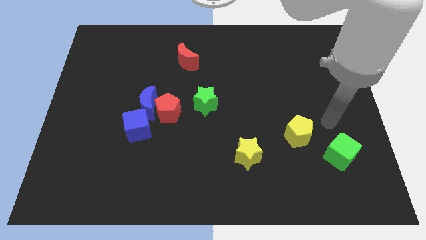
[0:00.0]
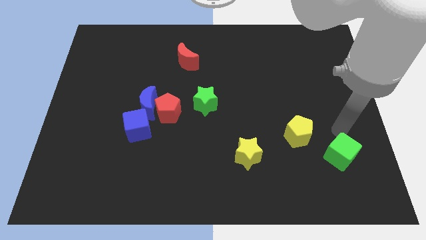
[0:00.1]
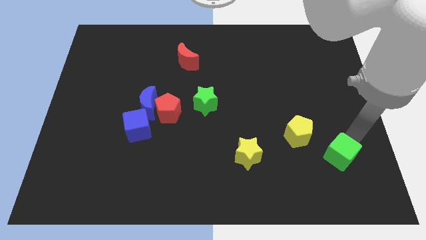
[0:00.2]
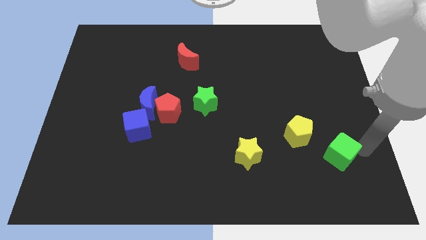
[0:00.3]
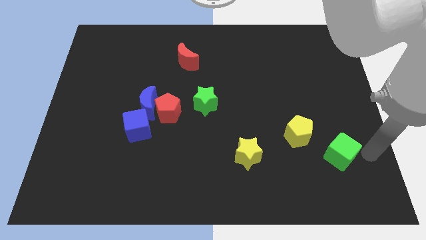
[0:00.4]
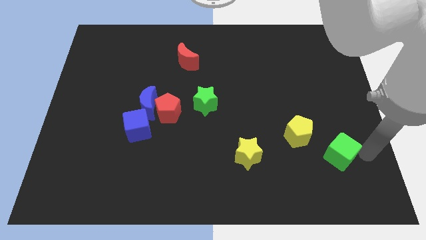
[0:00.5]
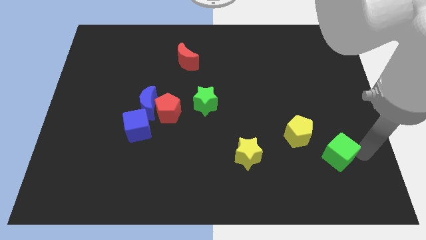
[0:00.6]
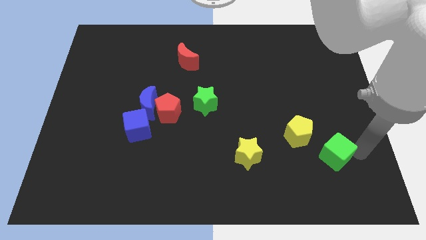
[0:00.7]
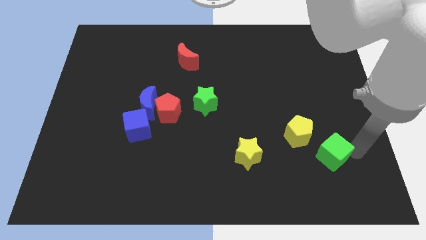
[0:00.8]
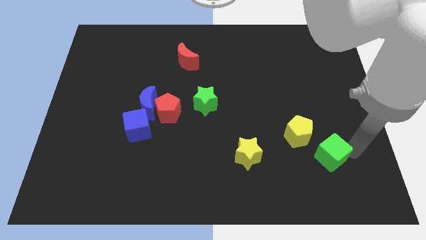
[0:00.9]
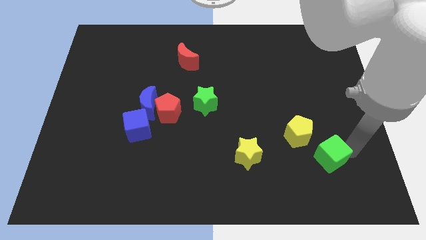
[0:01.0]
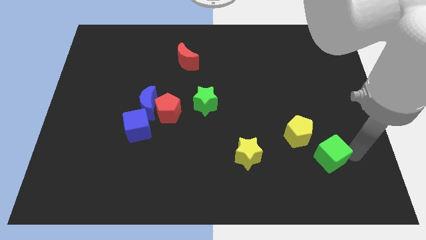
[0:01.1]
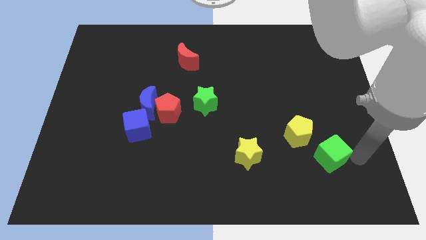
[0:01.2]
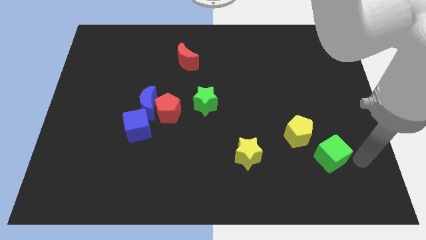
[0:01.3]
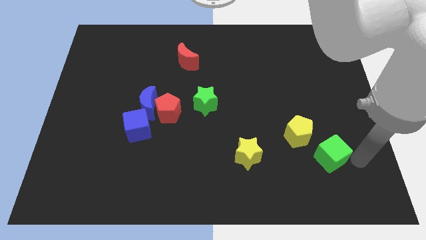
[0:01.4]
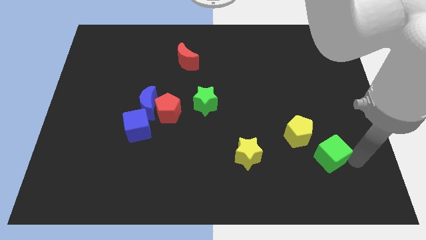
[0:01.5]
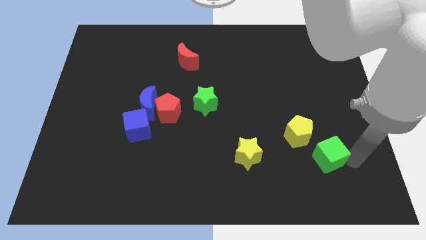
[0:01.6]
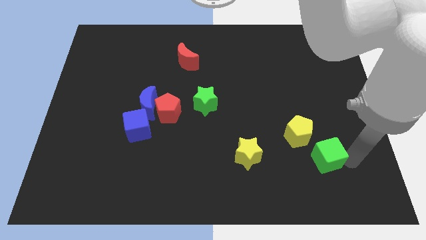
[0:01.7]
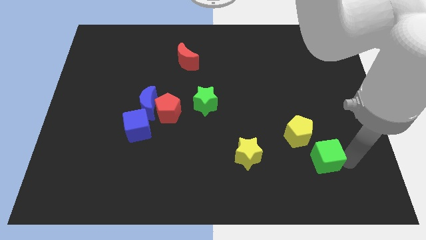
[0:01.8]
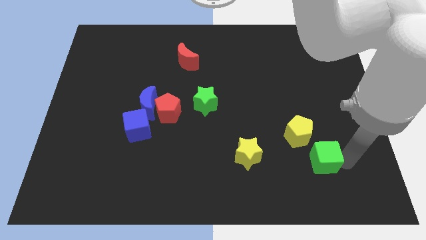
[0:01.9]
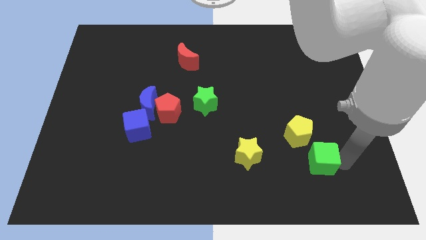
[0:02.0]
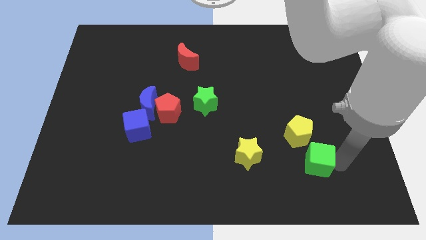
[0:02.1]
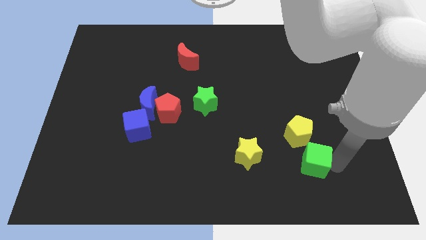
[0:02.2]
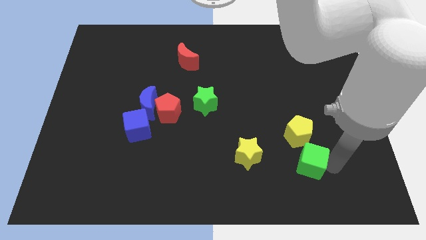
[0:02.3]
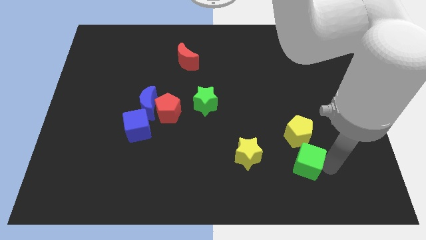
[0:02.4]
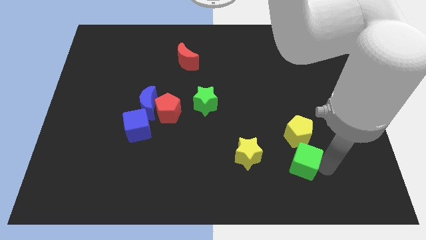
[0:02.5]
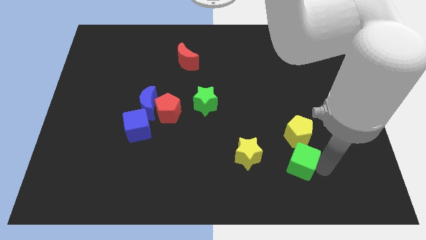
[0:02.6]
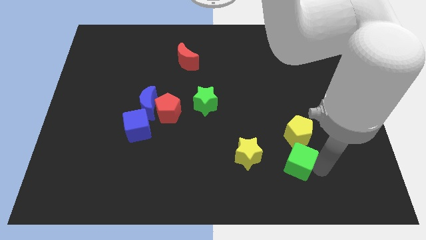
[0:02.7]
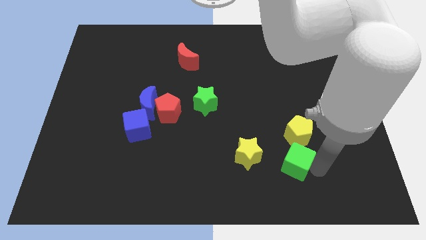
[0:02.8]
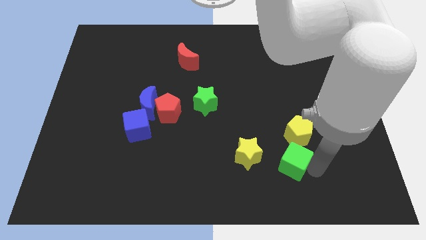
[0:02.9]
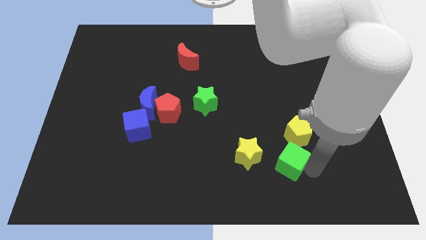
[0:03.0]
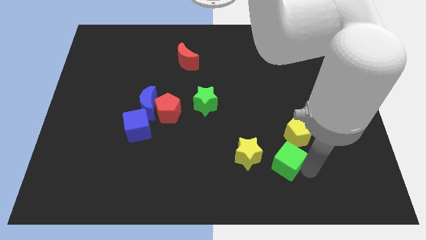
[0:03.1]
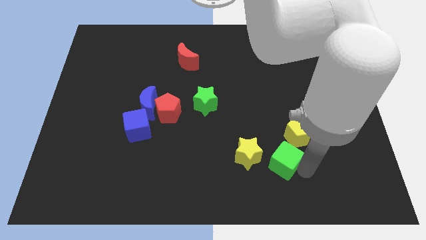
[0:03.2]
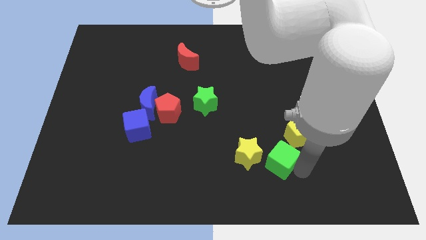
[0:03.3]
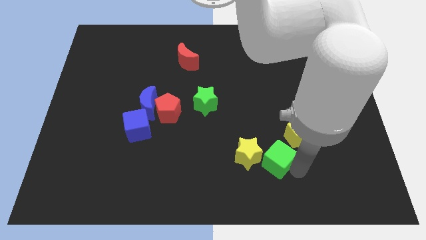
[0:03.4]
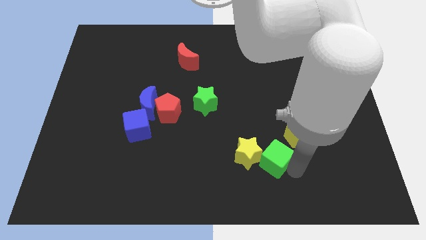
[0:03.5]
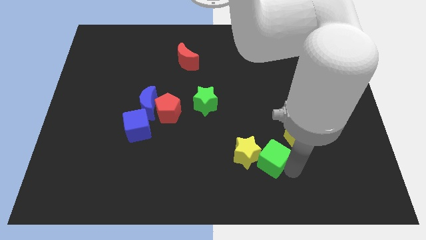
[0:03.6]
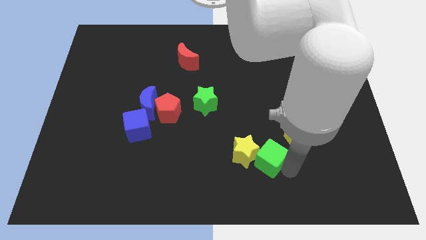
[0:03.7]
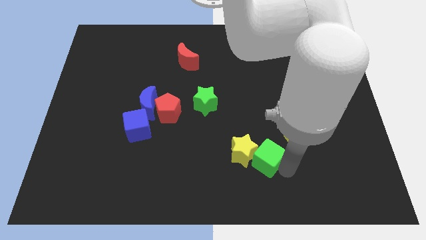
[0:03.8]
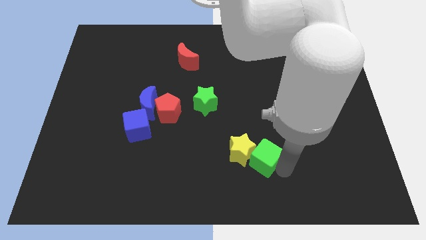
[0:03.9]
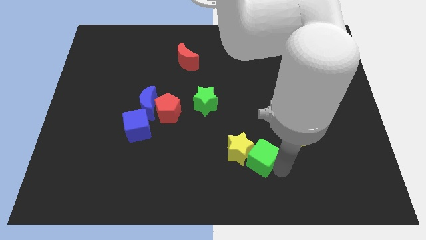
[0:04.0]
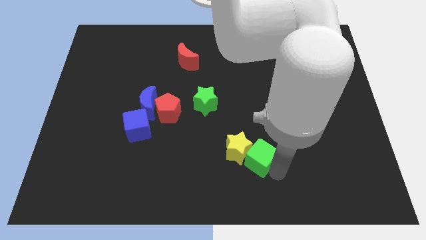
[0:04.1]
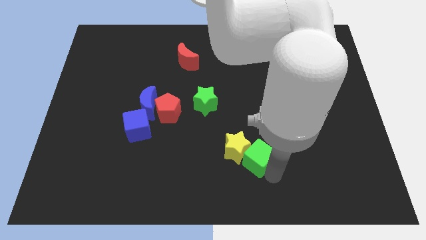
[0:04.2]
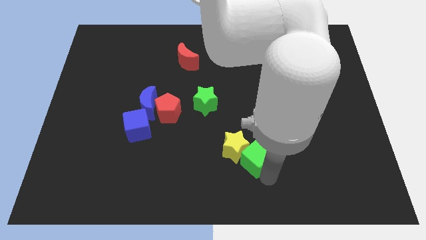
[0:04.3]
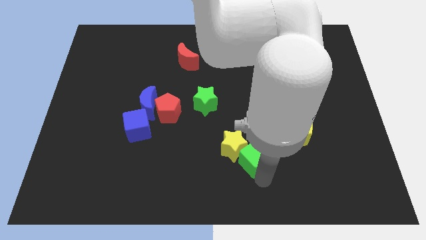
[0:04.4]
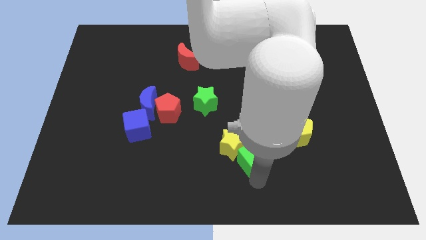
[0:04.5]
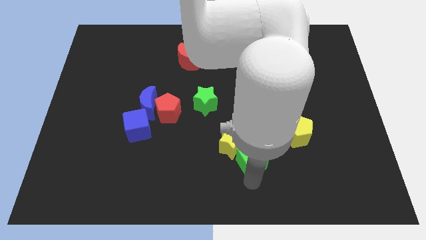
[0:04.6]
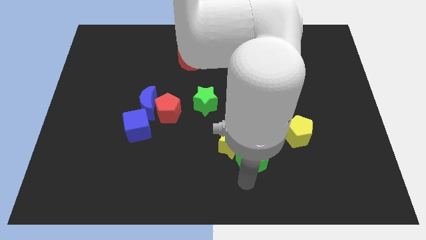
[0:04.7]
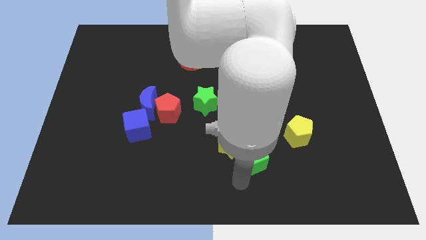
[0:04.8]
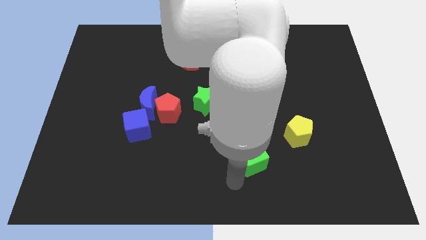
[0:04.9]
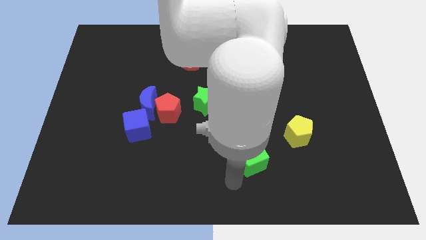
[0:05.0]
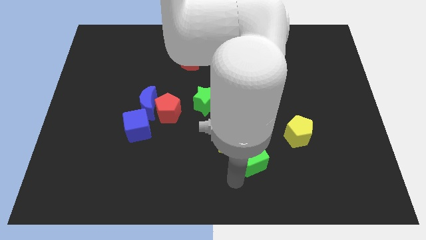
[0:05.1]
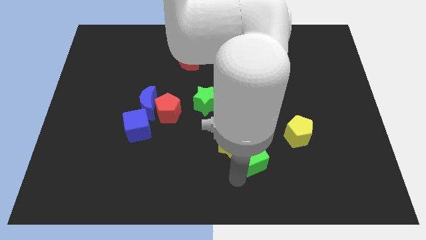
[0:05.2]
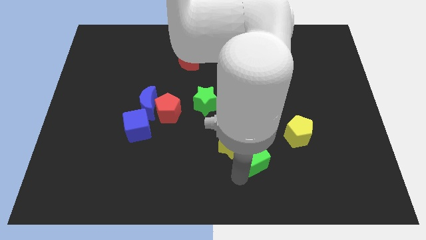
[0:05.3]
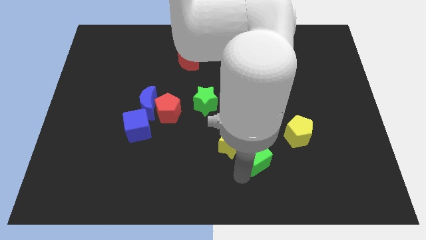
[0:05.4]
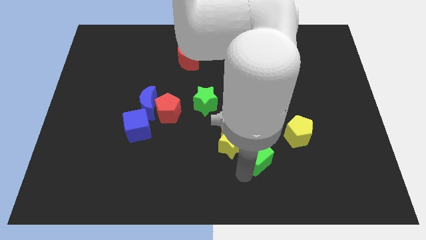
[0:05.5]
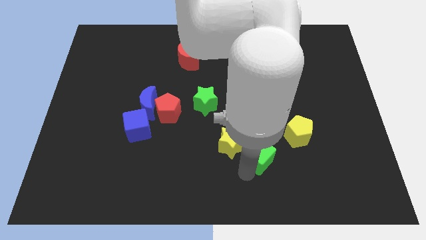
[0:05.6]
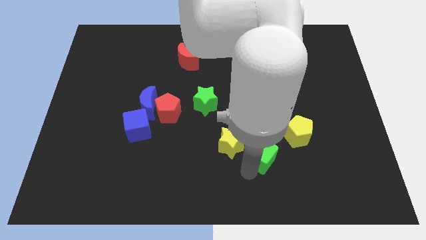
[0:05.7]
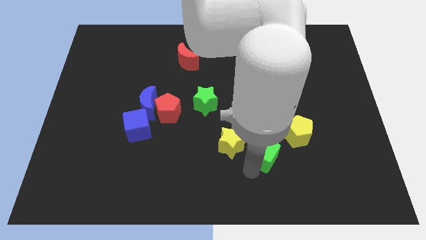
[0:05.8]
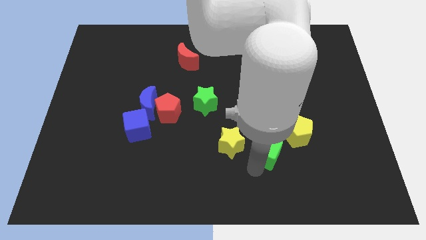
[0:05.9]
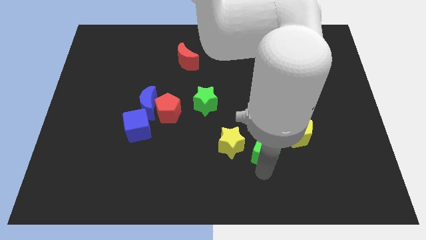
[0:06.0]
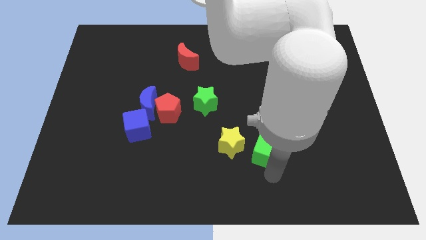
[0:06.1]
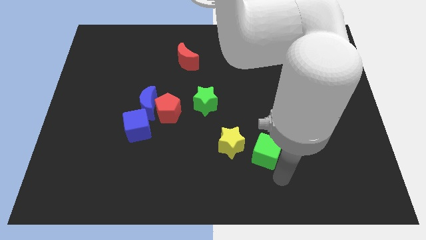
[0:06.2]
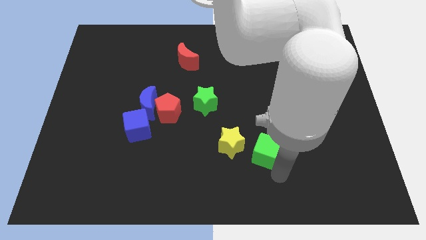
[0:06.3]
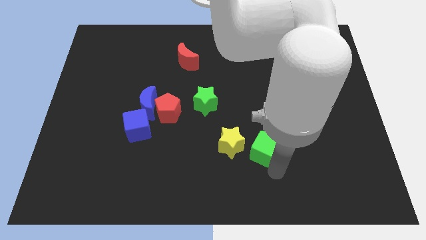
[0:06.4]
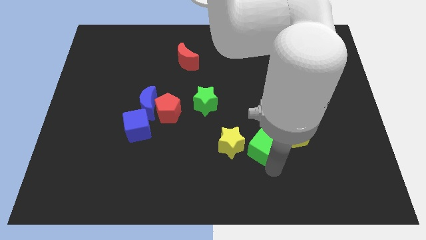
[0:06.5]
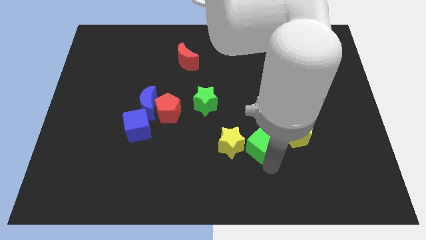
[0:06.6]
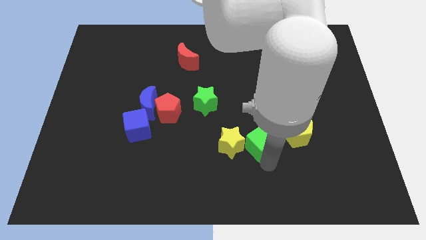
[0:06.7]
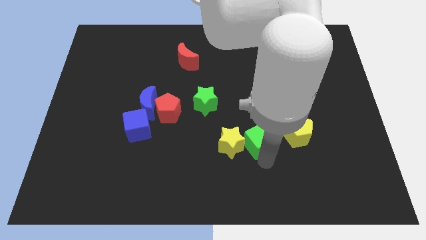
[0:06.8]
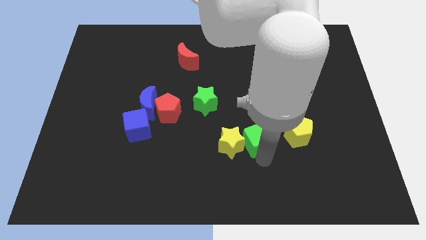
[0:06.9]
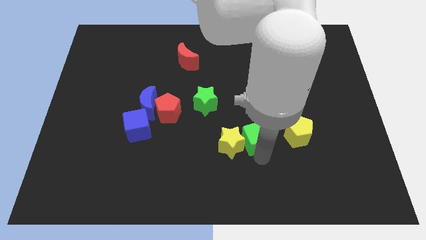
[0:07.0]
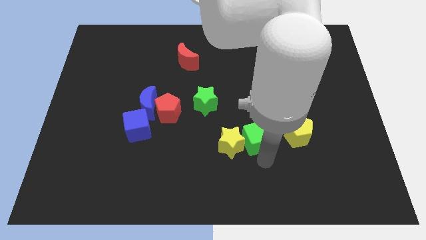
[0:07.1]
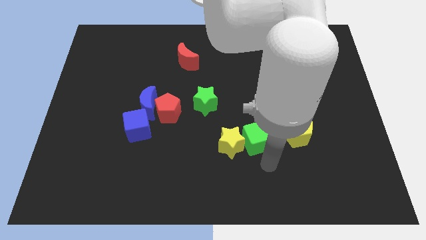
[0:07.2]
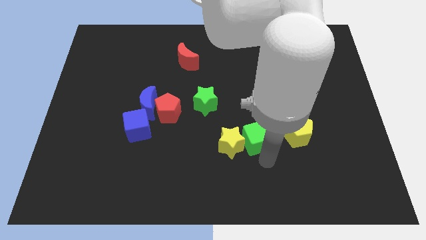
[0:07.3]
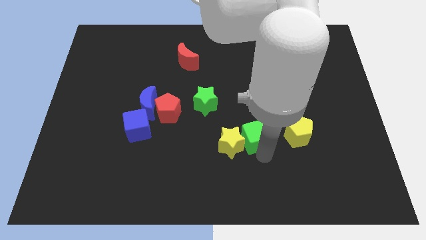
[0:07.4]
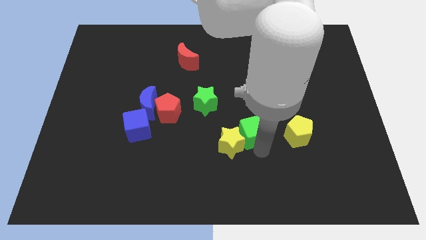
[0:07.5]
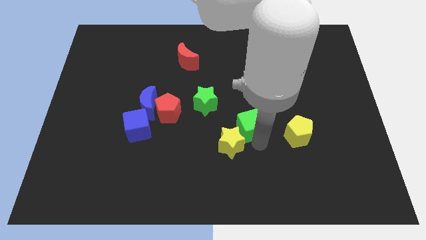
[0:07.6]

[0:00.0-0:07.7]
push the green cube to the bottom right side of the green star
